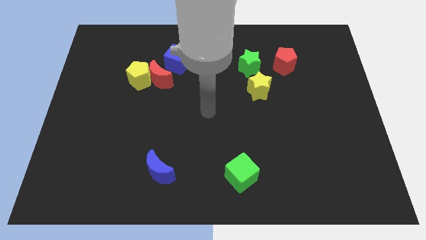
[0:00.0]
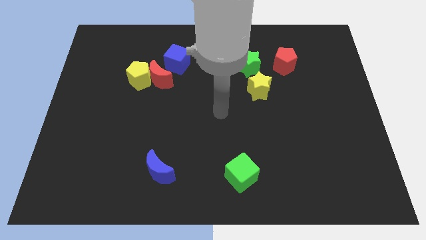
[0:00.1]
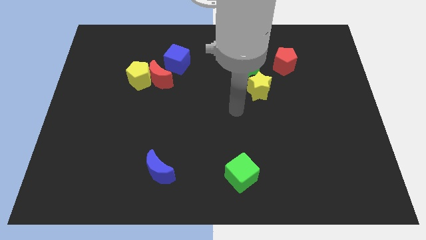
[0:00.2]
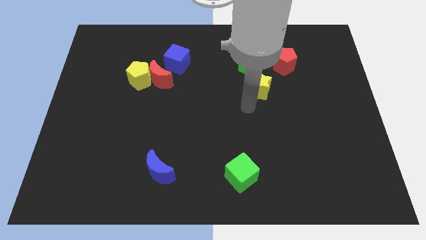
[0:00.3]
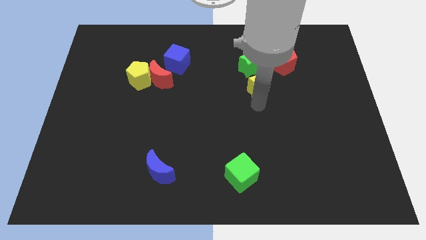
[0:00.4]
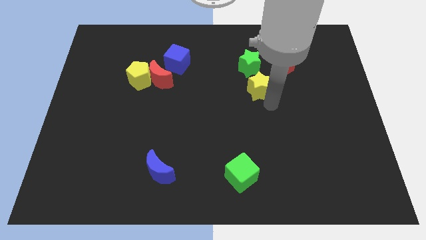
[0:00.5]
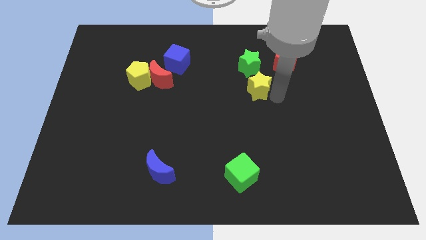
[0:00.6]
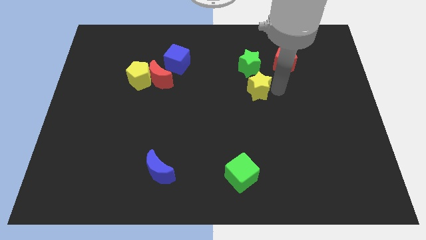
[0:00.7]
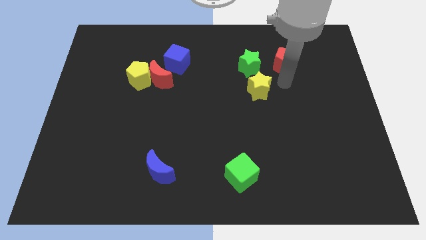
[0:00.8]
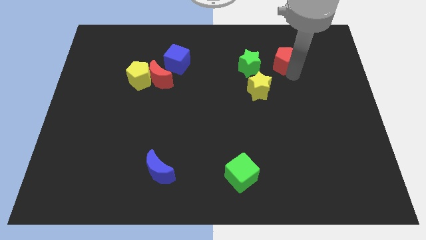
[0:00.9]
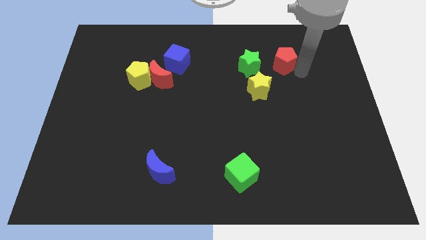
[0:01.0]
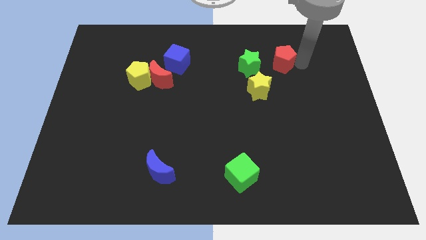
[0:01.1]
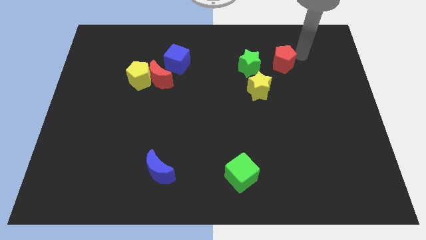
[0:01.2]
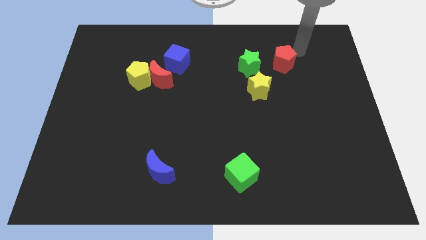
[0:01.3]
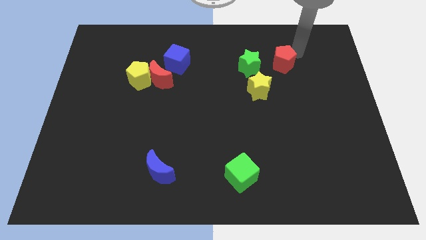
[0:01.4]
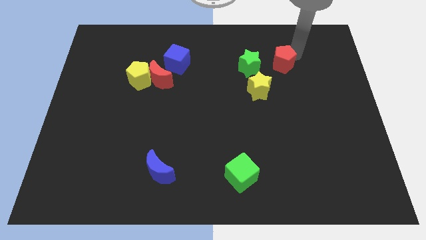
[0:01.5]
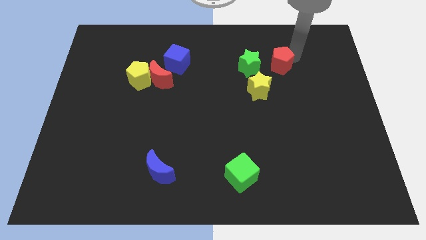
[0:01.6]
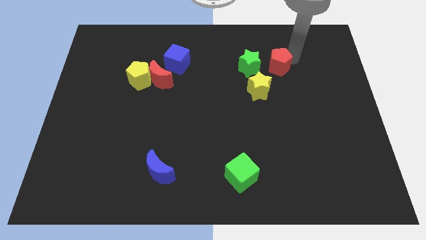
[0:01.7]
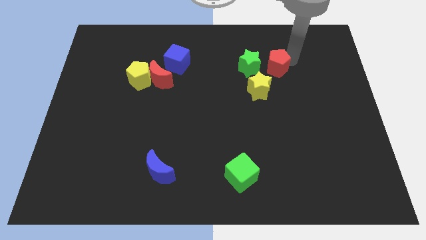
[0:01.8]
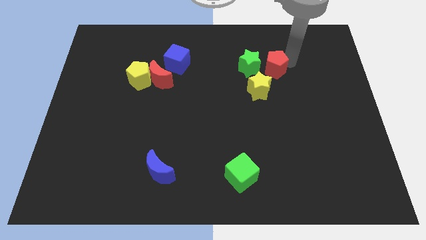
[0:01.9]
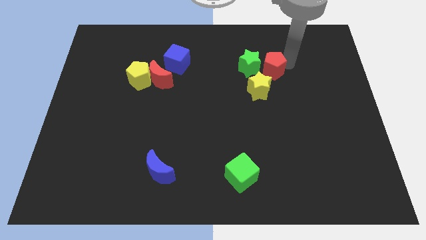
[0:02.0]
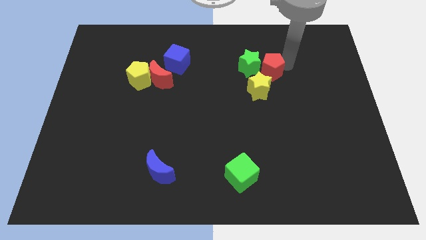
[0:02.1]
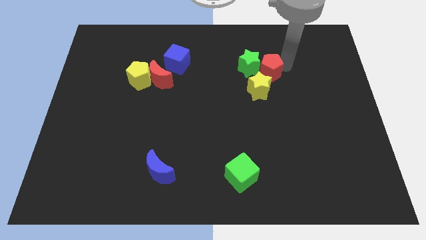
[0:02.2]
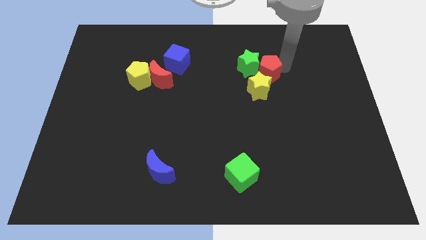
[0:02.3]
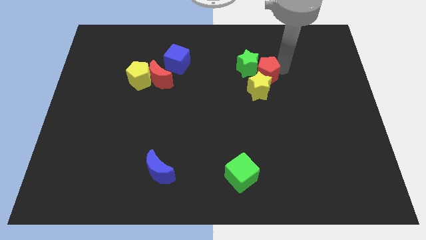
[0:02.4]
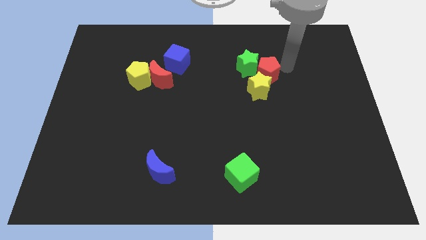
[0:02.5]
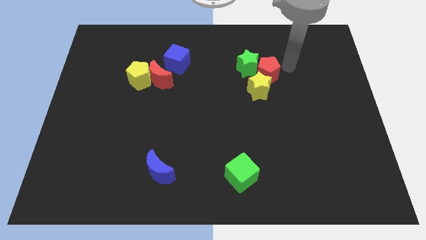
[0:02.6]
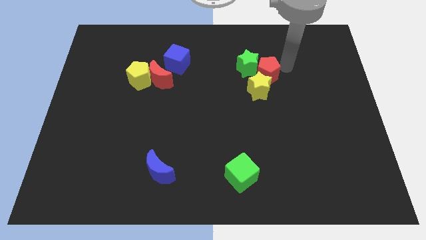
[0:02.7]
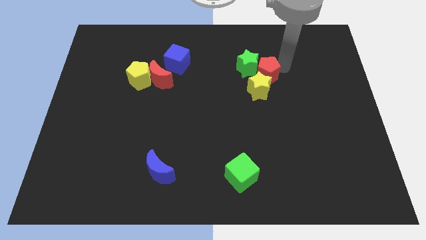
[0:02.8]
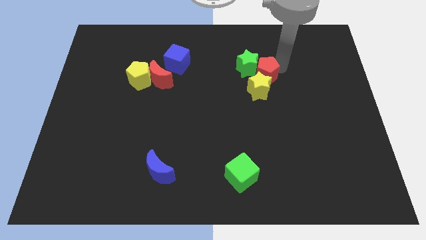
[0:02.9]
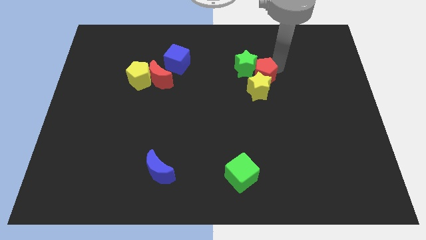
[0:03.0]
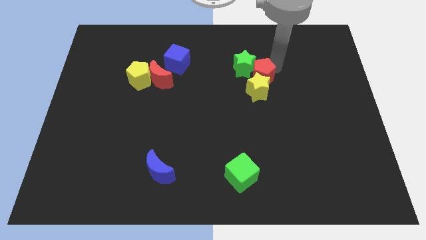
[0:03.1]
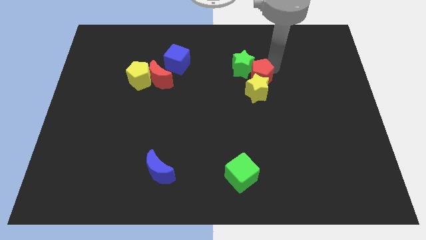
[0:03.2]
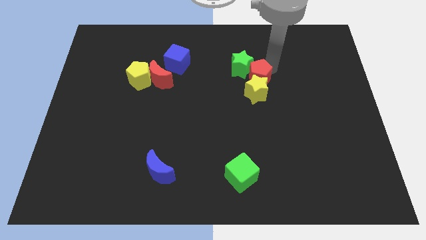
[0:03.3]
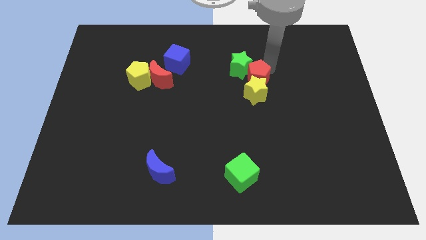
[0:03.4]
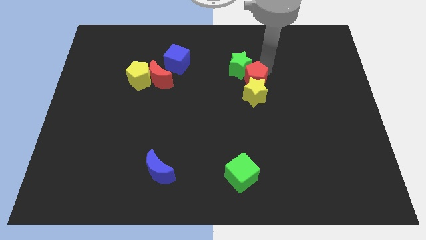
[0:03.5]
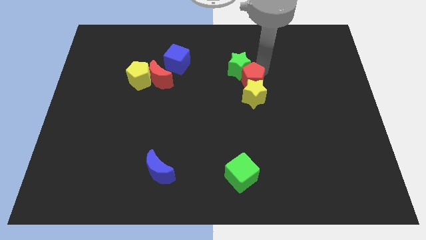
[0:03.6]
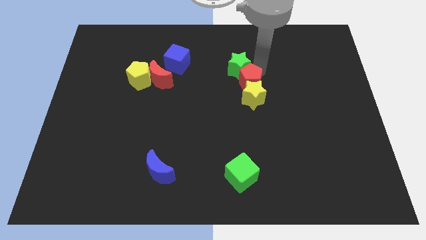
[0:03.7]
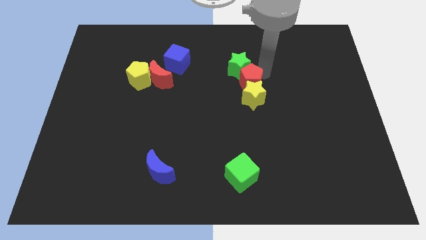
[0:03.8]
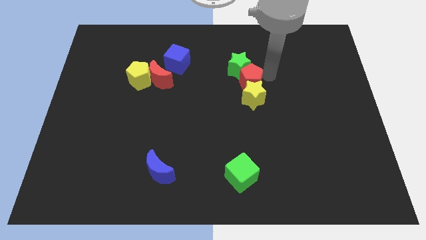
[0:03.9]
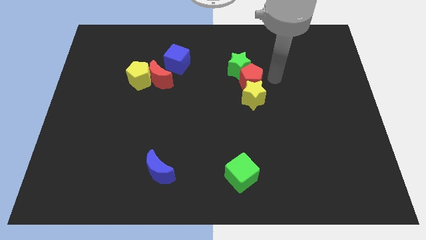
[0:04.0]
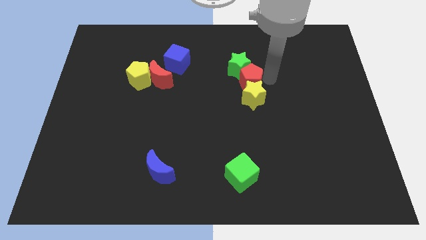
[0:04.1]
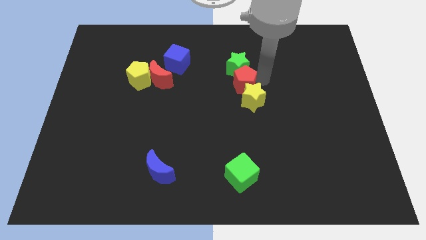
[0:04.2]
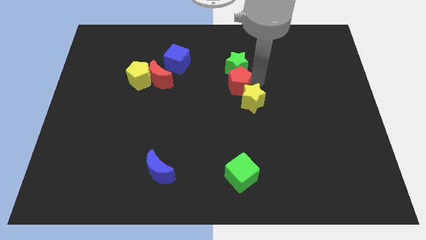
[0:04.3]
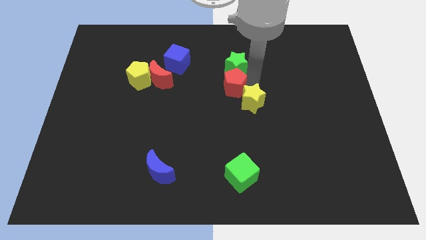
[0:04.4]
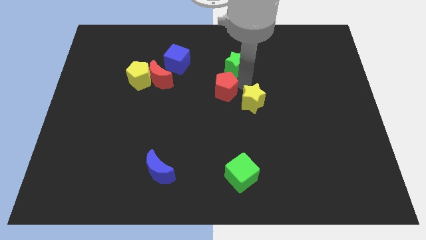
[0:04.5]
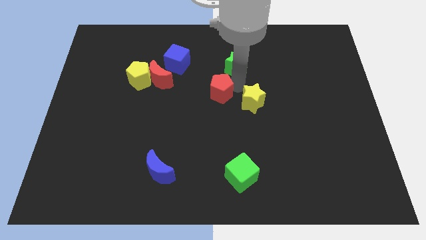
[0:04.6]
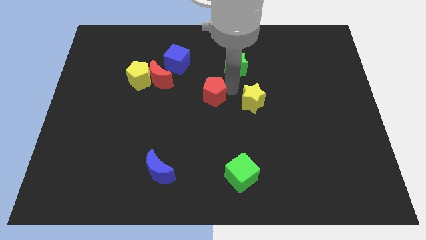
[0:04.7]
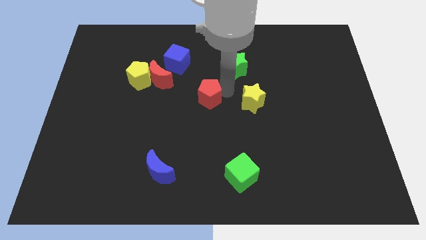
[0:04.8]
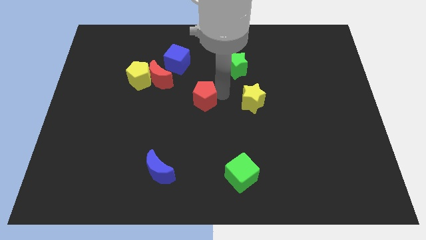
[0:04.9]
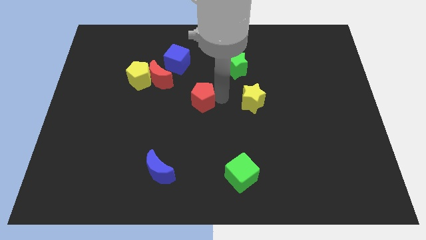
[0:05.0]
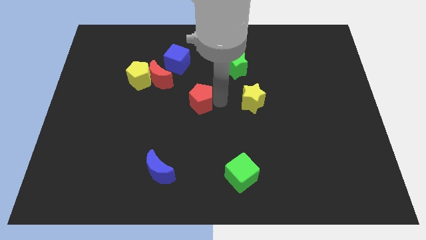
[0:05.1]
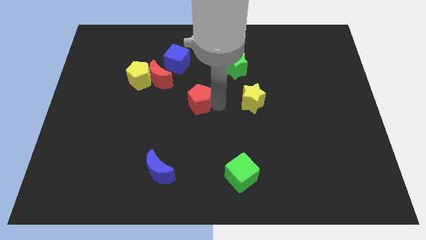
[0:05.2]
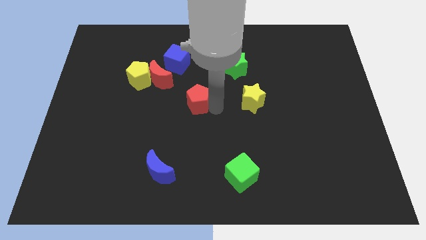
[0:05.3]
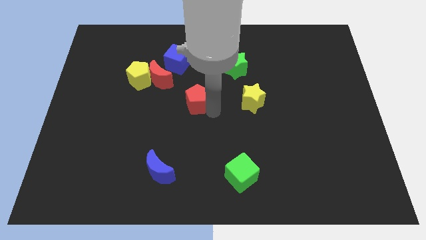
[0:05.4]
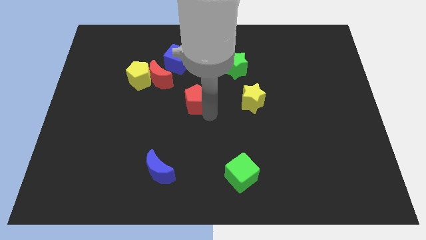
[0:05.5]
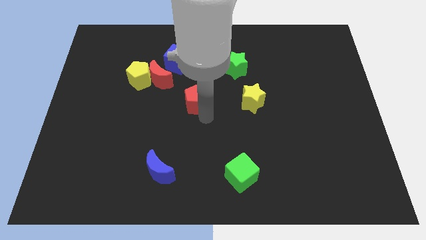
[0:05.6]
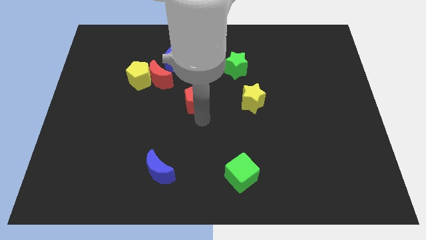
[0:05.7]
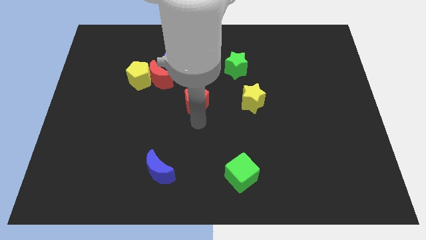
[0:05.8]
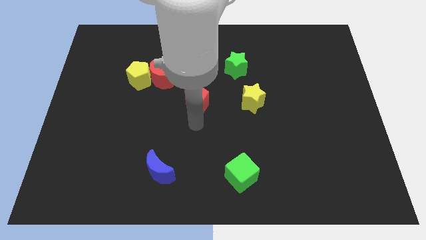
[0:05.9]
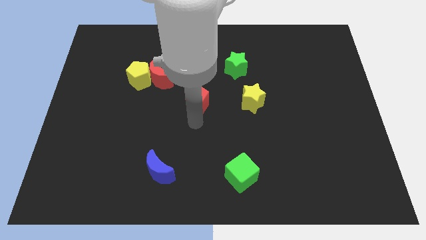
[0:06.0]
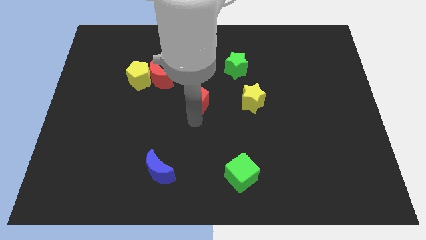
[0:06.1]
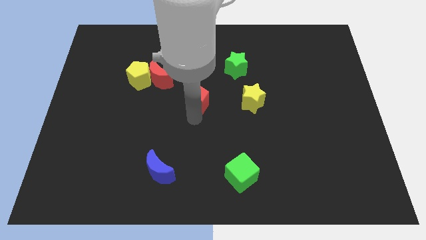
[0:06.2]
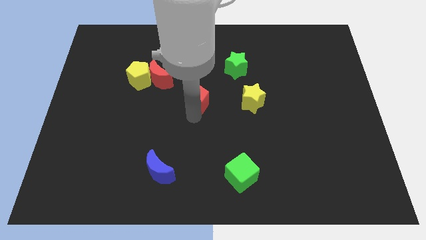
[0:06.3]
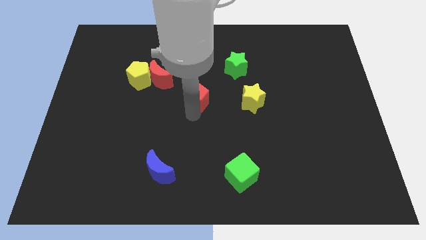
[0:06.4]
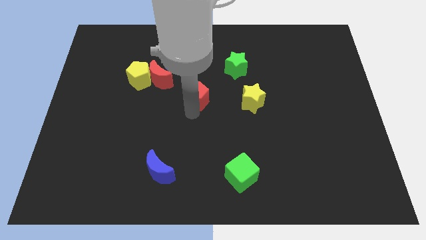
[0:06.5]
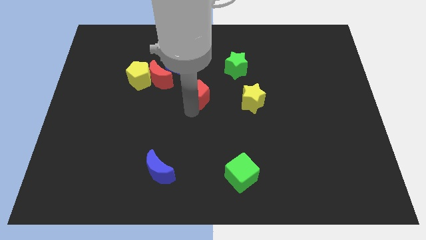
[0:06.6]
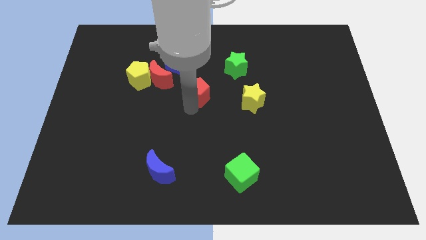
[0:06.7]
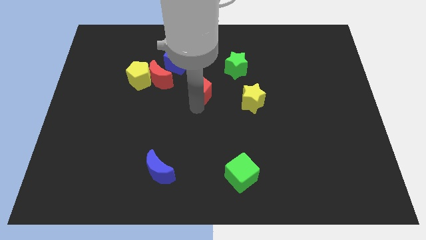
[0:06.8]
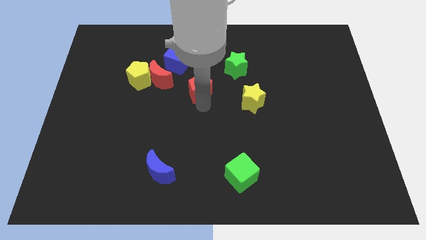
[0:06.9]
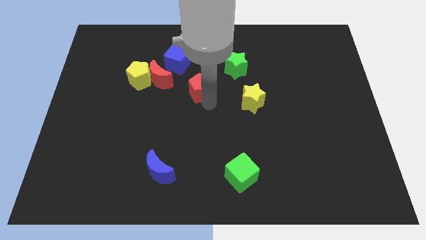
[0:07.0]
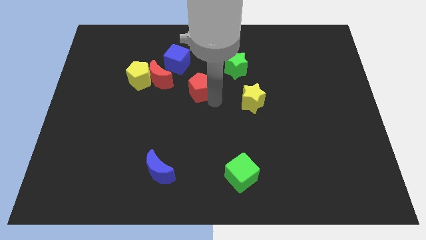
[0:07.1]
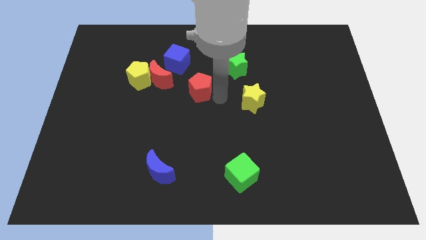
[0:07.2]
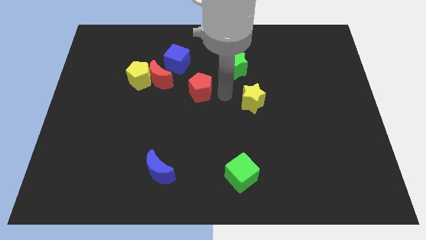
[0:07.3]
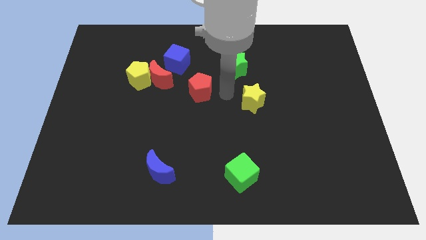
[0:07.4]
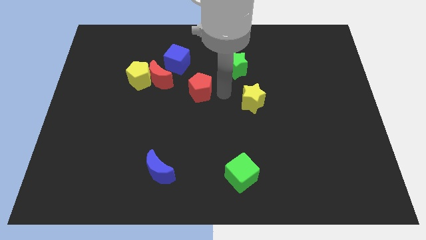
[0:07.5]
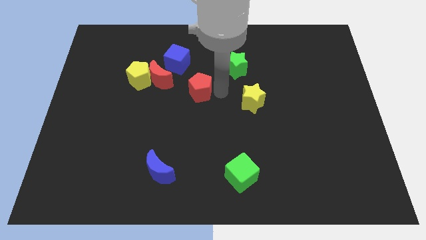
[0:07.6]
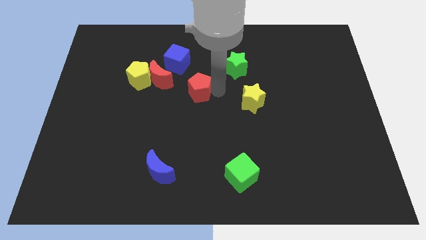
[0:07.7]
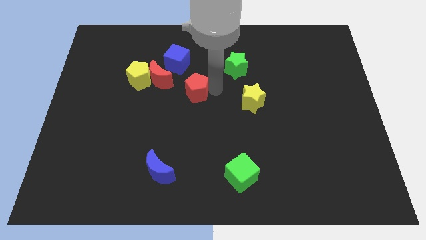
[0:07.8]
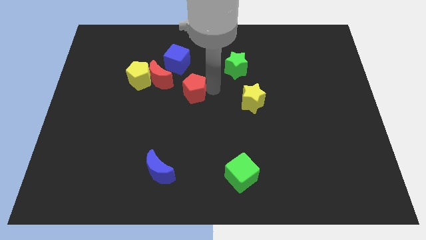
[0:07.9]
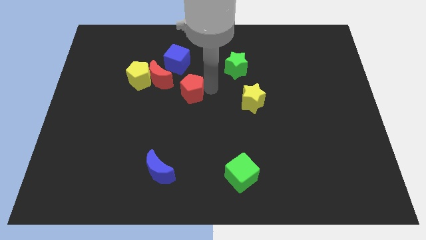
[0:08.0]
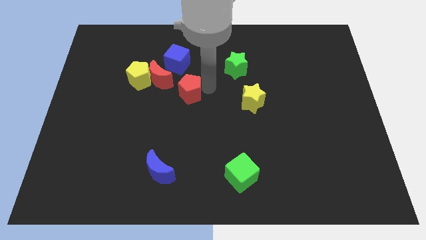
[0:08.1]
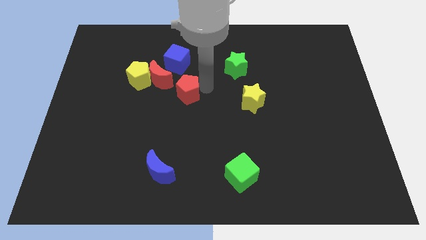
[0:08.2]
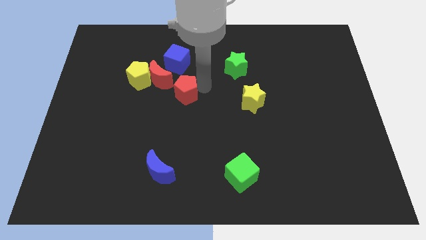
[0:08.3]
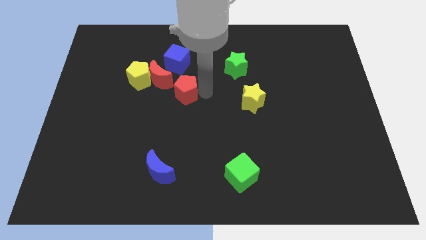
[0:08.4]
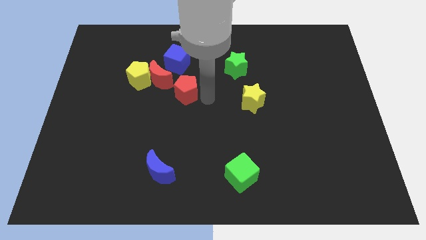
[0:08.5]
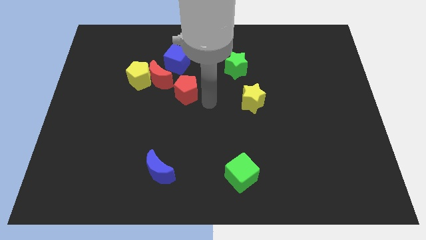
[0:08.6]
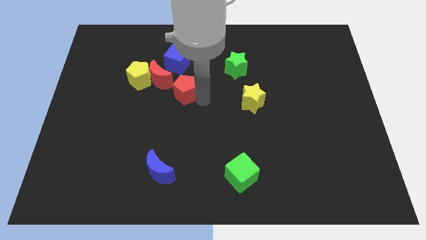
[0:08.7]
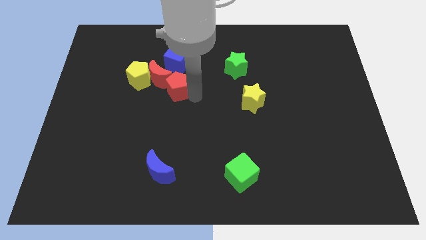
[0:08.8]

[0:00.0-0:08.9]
put the red pentagon close to the red moon
